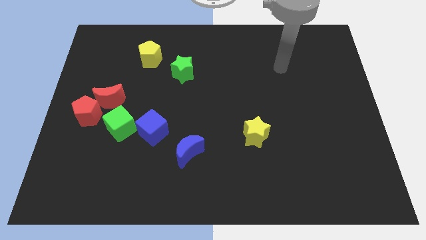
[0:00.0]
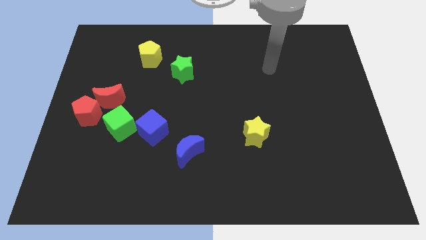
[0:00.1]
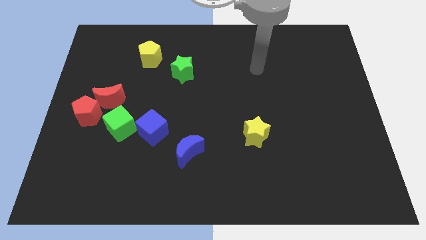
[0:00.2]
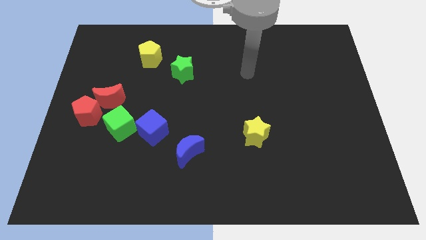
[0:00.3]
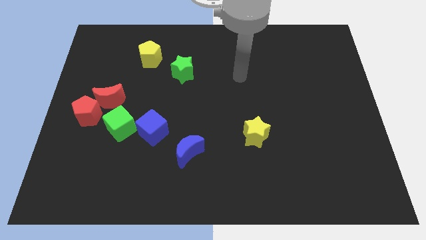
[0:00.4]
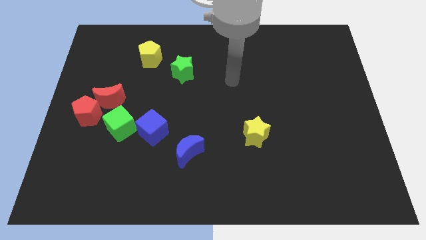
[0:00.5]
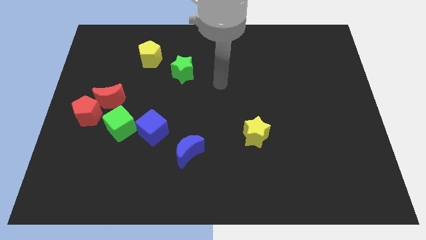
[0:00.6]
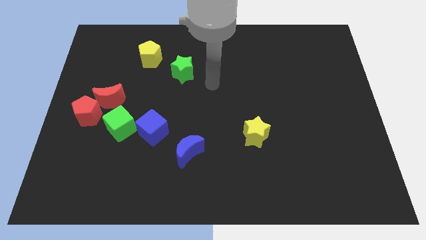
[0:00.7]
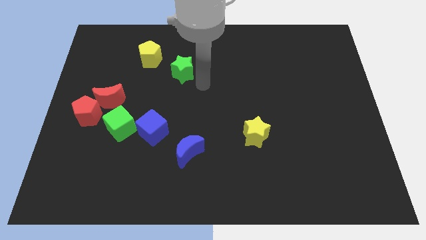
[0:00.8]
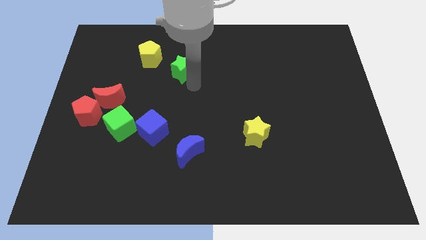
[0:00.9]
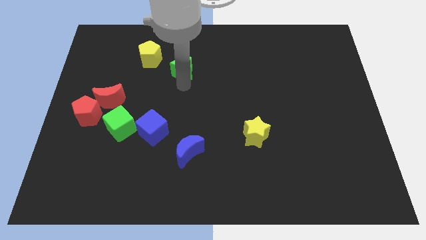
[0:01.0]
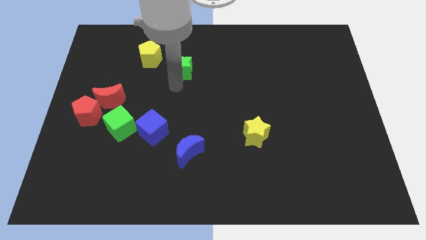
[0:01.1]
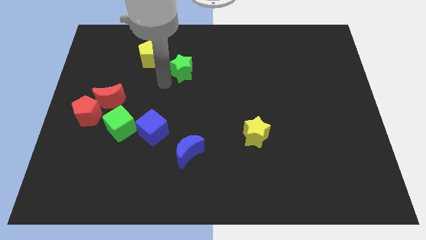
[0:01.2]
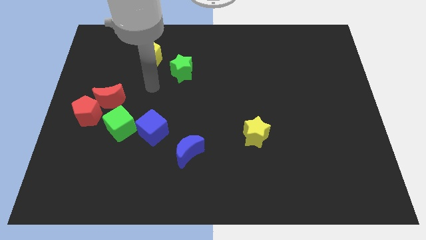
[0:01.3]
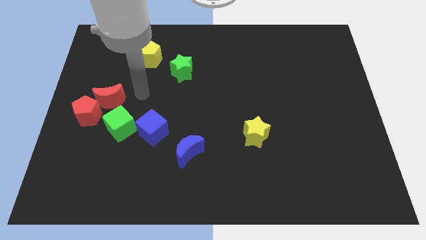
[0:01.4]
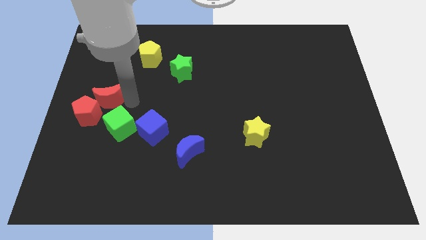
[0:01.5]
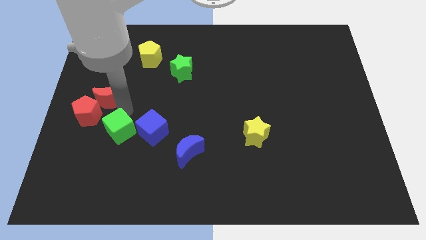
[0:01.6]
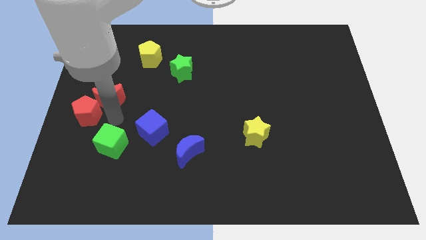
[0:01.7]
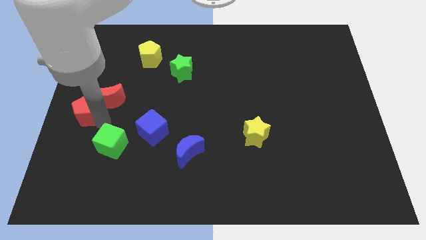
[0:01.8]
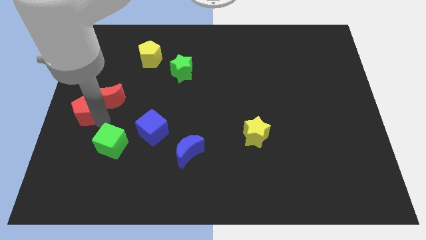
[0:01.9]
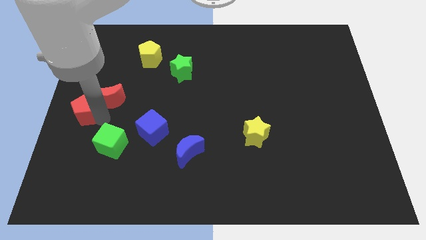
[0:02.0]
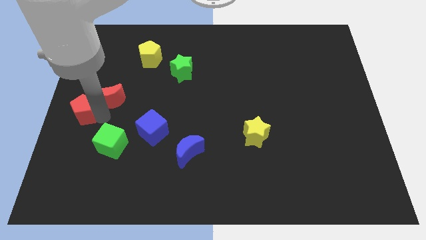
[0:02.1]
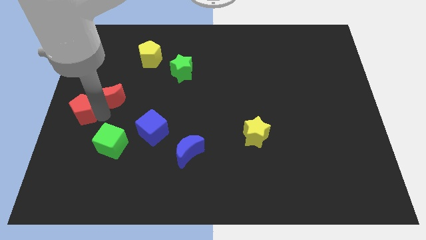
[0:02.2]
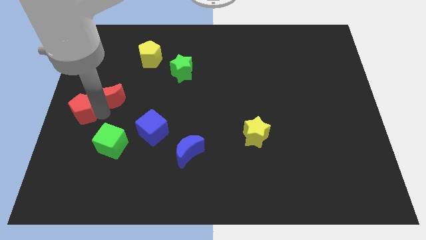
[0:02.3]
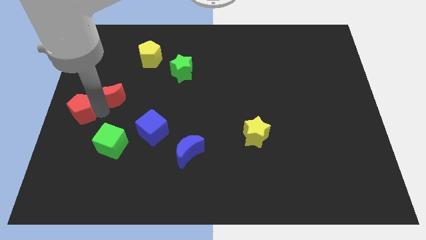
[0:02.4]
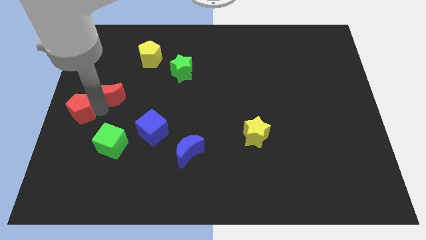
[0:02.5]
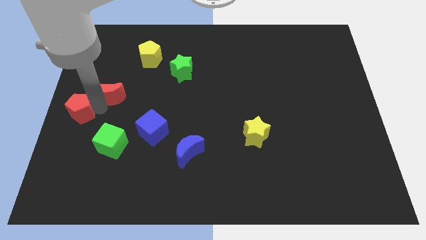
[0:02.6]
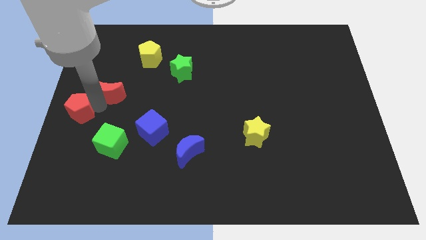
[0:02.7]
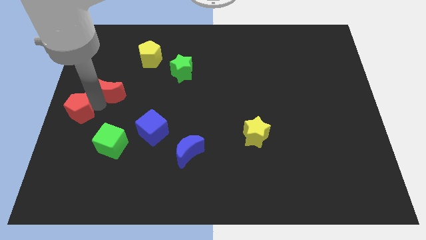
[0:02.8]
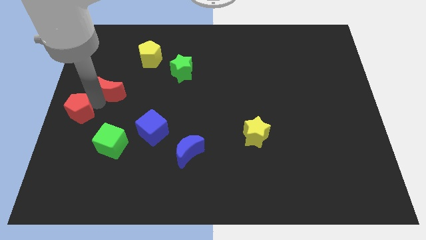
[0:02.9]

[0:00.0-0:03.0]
separate the red moon from the red pentagon and green cube

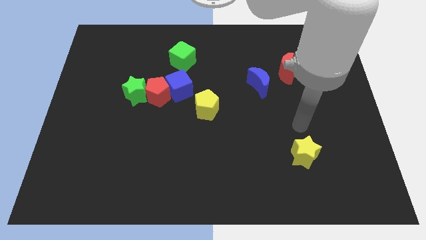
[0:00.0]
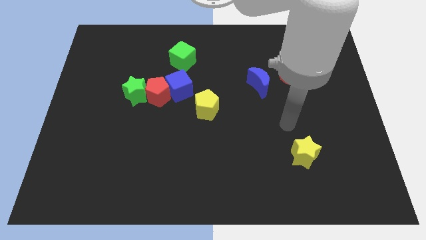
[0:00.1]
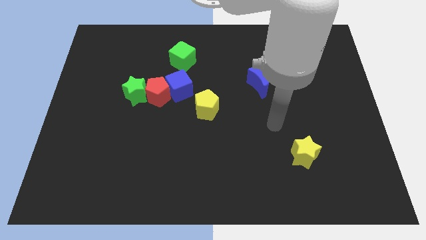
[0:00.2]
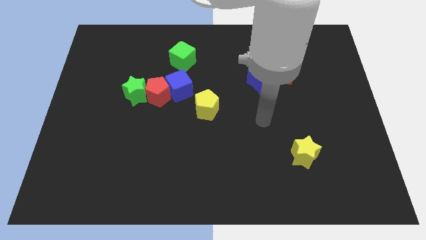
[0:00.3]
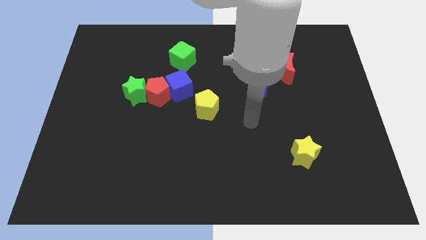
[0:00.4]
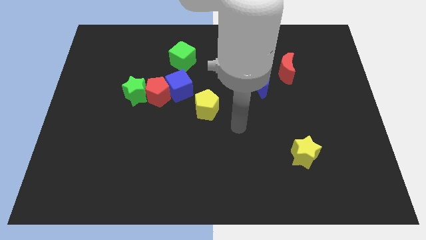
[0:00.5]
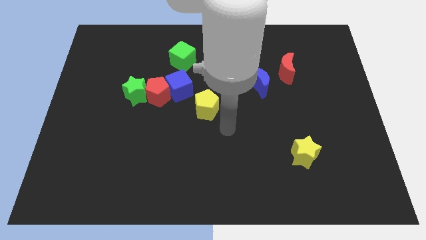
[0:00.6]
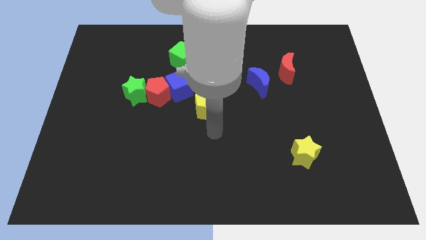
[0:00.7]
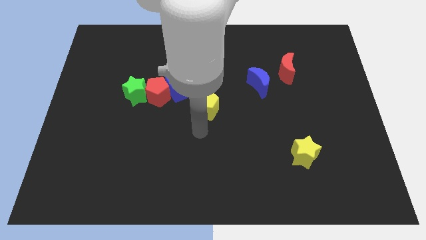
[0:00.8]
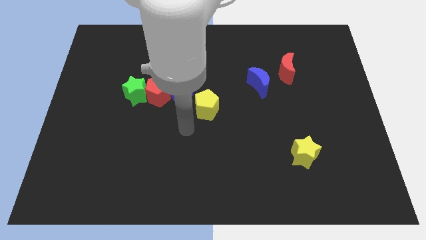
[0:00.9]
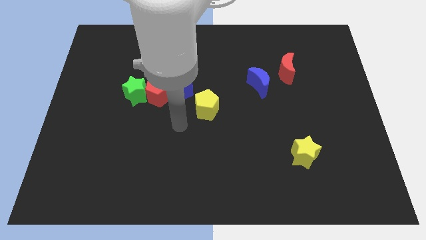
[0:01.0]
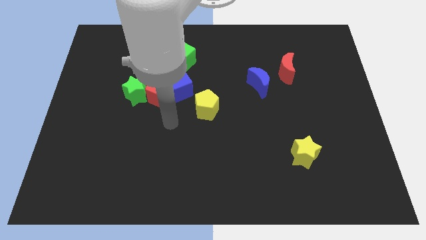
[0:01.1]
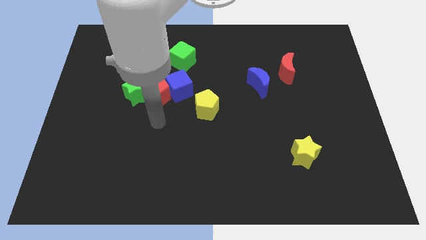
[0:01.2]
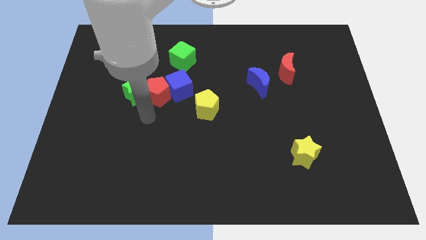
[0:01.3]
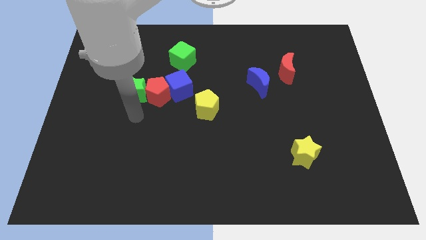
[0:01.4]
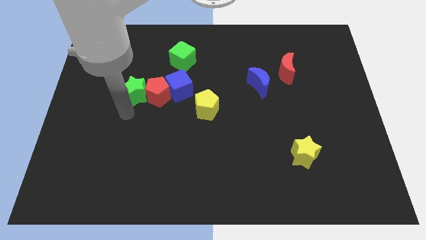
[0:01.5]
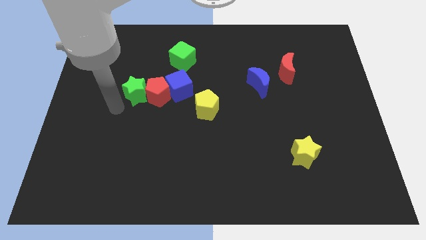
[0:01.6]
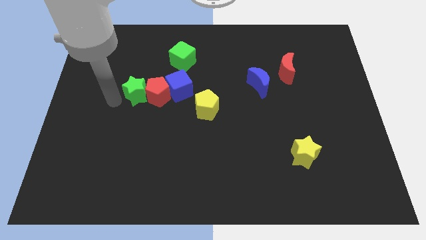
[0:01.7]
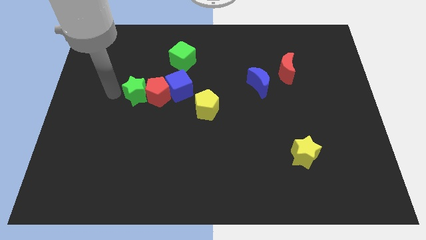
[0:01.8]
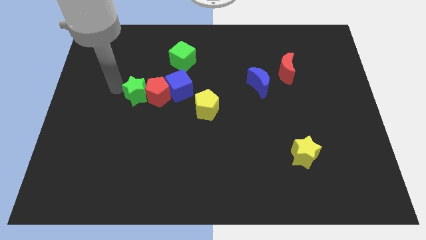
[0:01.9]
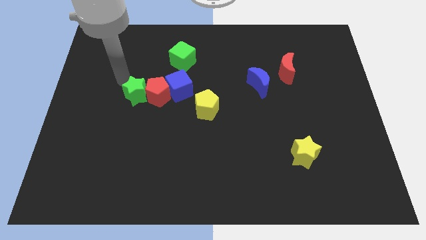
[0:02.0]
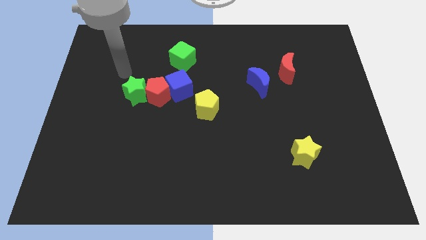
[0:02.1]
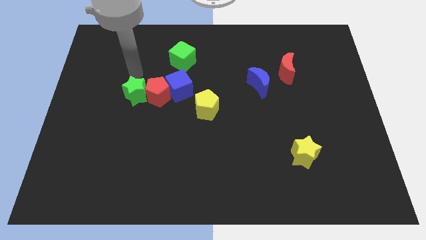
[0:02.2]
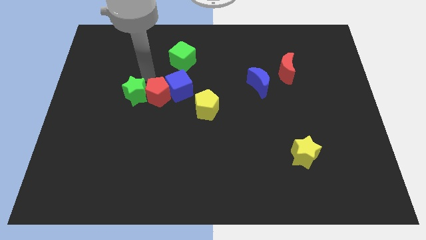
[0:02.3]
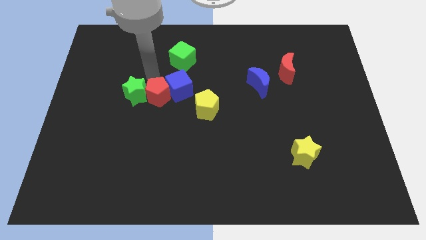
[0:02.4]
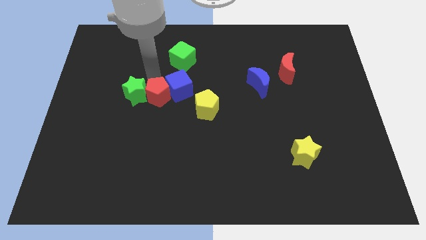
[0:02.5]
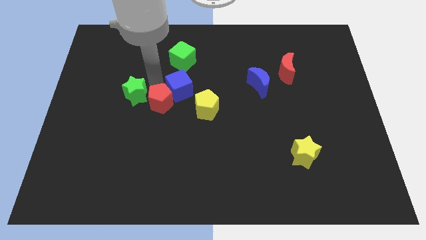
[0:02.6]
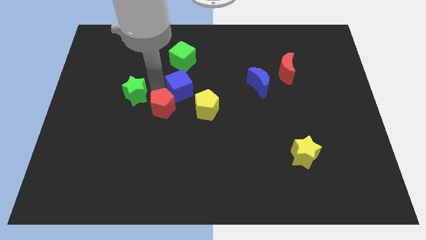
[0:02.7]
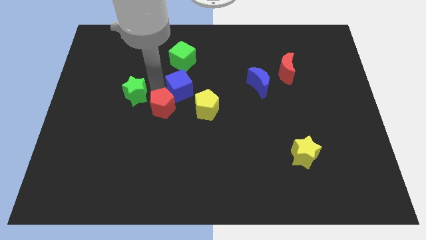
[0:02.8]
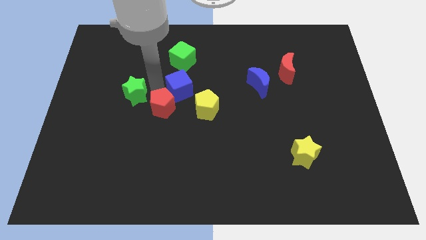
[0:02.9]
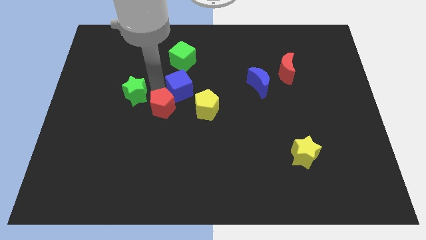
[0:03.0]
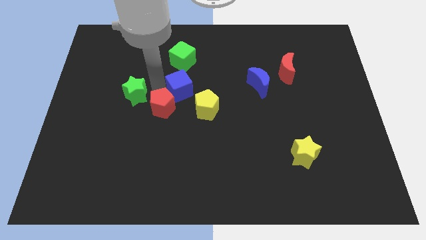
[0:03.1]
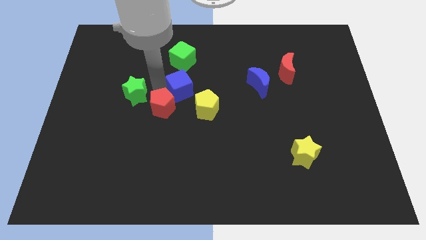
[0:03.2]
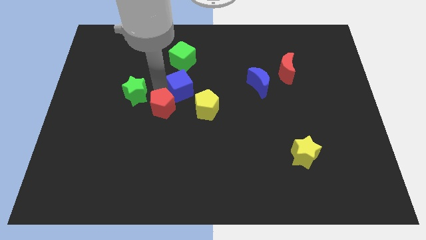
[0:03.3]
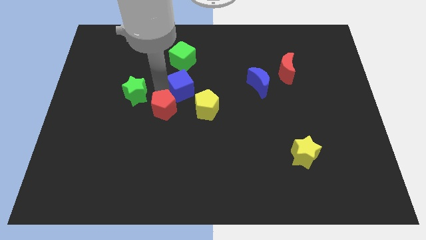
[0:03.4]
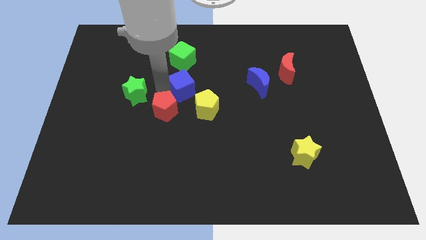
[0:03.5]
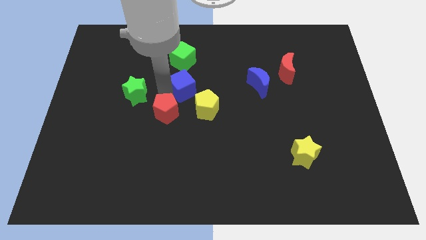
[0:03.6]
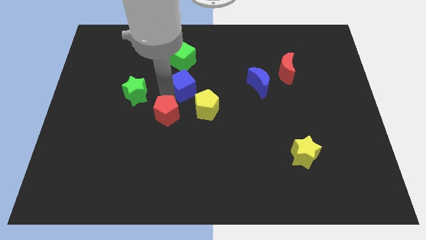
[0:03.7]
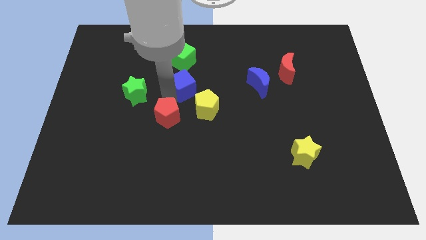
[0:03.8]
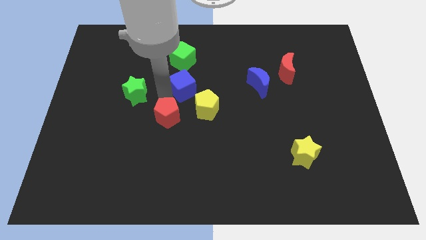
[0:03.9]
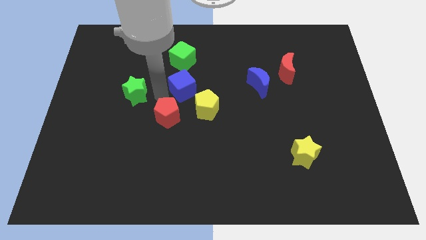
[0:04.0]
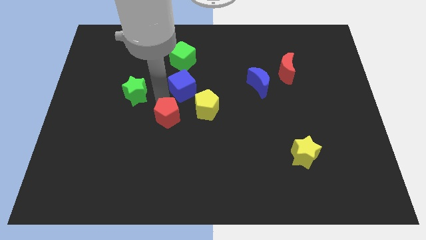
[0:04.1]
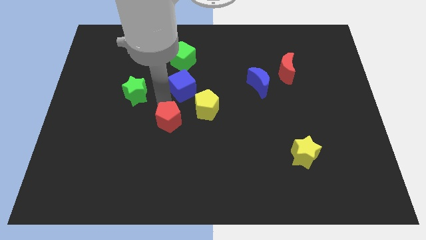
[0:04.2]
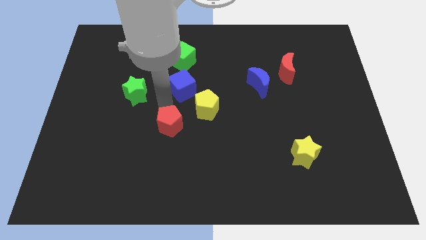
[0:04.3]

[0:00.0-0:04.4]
separate the red pentagon from the blue cube and green star

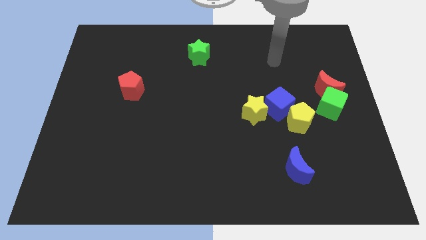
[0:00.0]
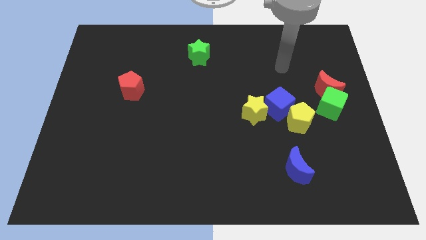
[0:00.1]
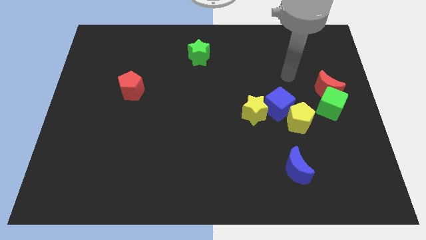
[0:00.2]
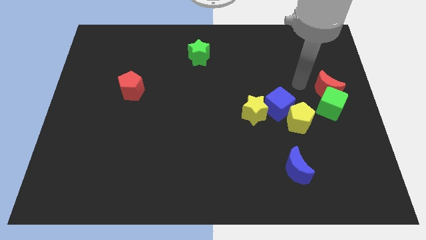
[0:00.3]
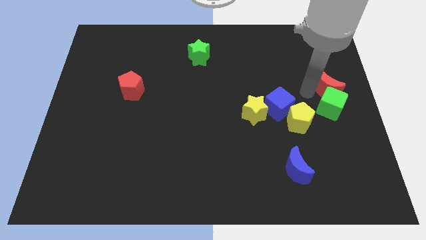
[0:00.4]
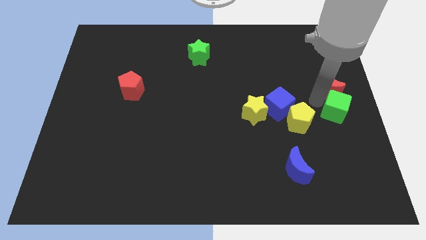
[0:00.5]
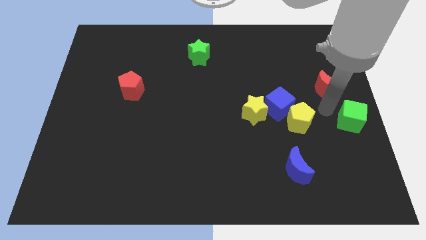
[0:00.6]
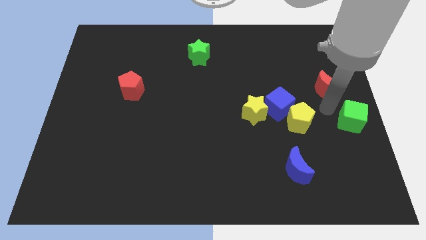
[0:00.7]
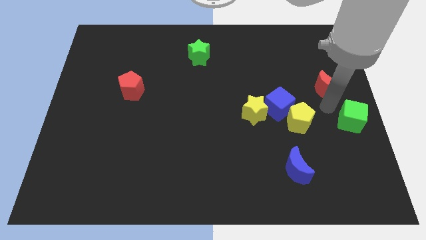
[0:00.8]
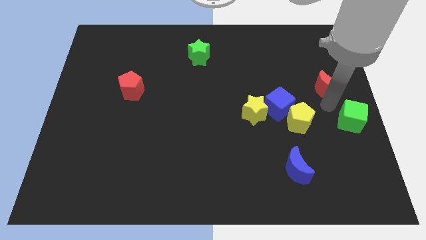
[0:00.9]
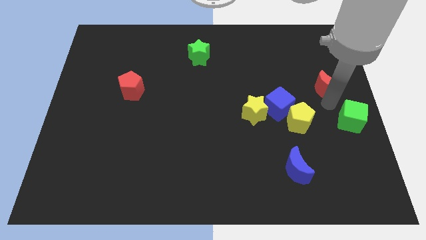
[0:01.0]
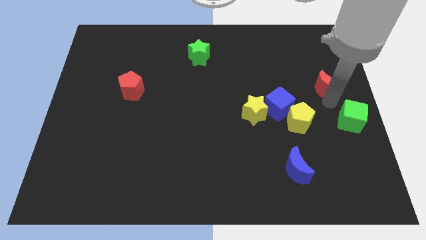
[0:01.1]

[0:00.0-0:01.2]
move the red moon away from the green cube

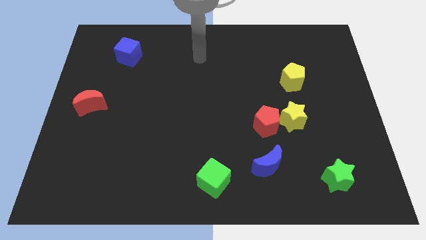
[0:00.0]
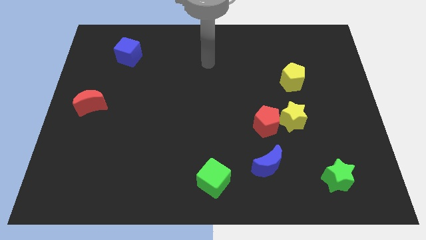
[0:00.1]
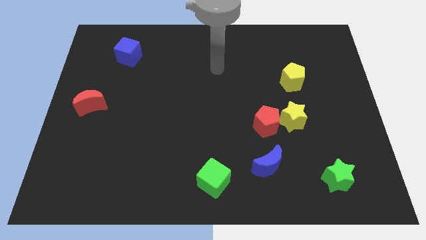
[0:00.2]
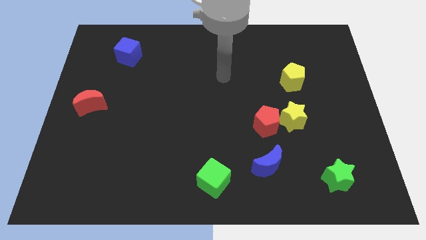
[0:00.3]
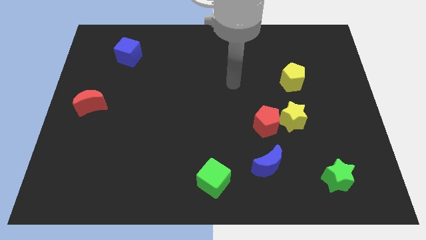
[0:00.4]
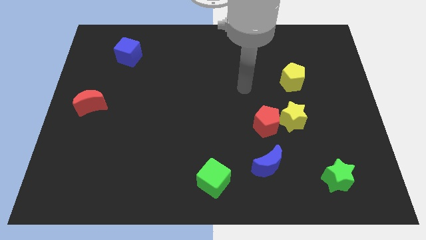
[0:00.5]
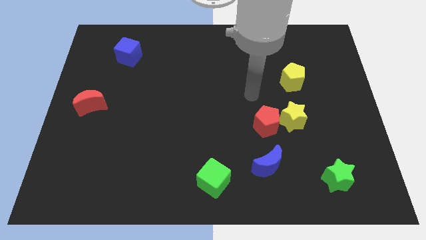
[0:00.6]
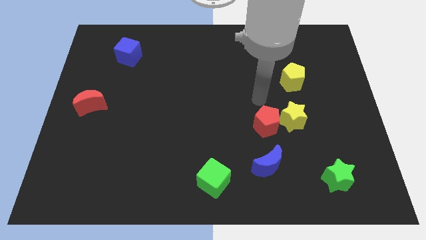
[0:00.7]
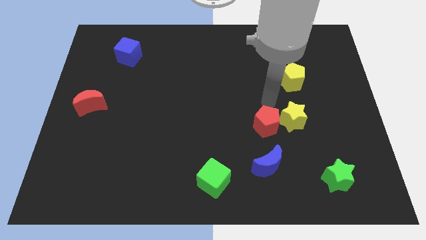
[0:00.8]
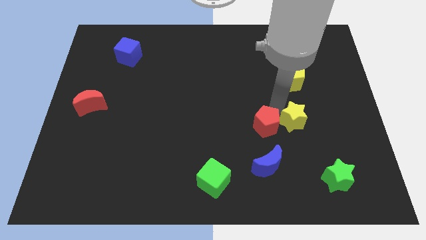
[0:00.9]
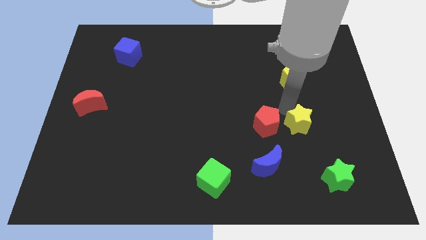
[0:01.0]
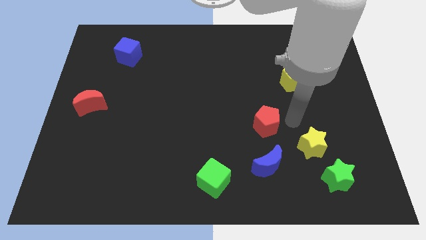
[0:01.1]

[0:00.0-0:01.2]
pull the red pentagon apart from the yellow star
